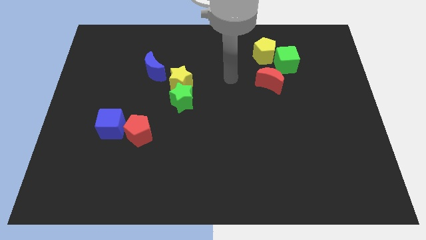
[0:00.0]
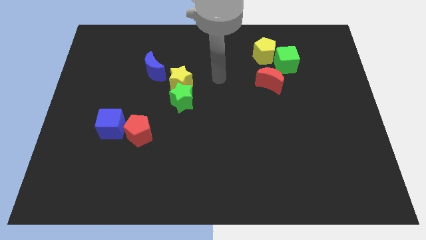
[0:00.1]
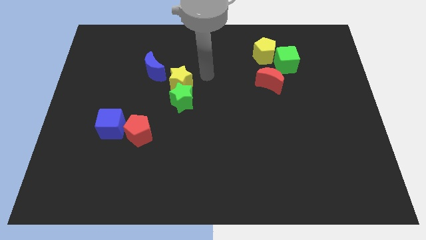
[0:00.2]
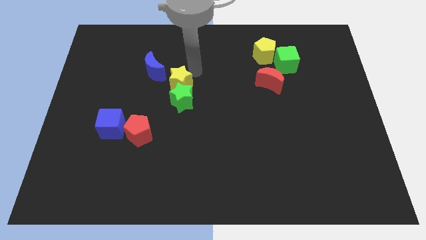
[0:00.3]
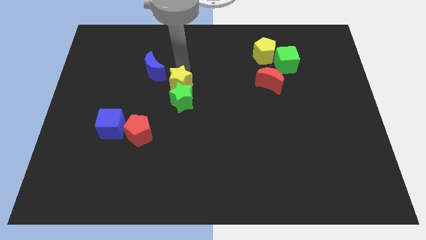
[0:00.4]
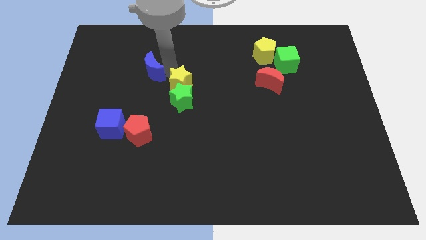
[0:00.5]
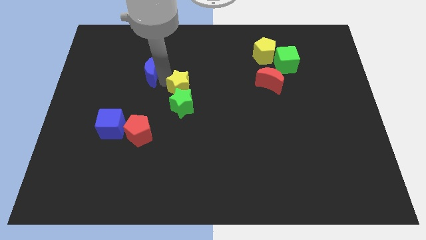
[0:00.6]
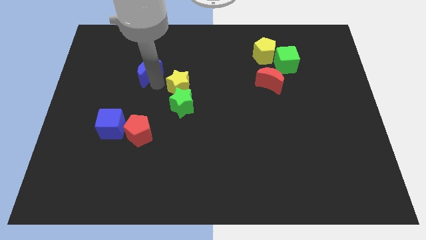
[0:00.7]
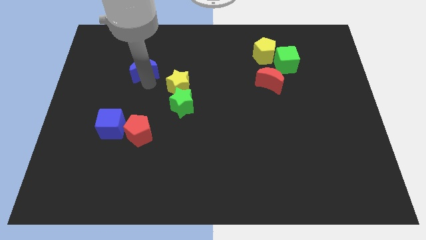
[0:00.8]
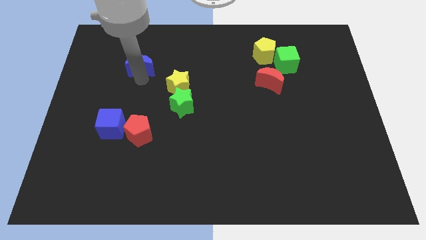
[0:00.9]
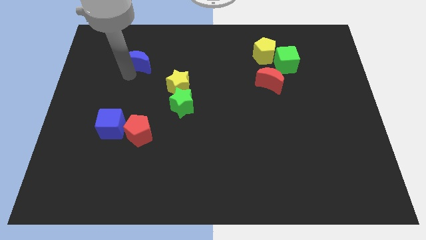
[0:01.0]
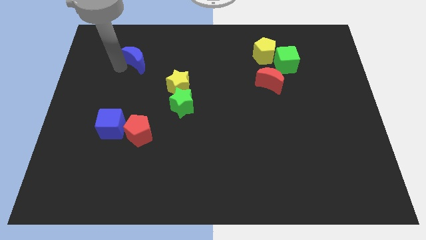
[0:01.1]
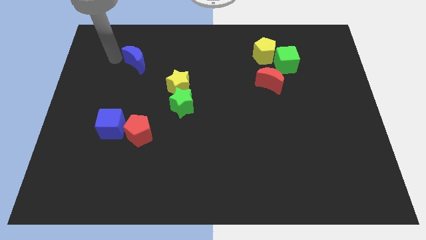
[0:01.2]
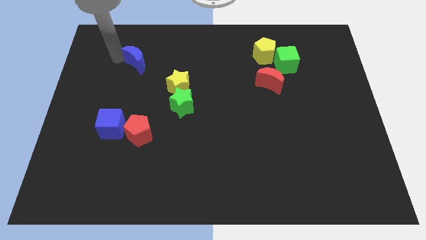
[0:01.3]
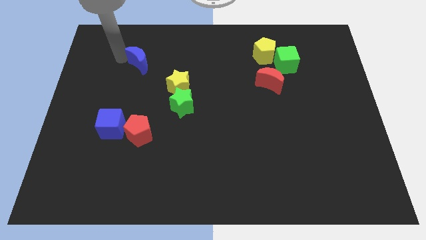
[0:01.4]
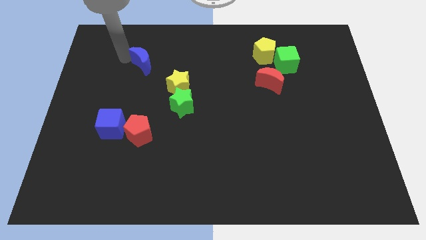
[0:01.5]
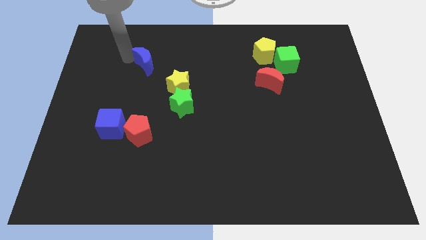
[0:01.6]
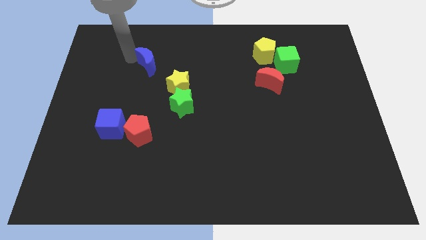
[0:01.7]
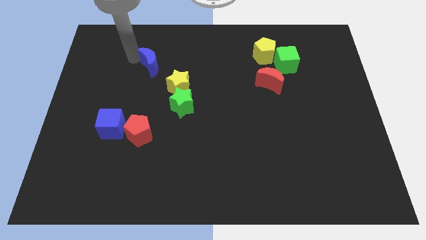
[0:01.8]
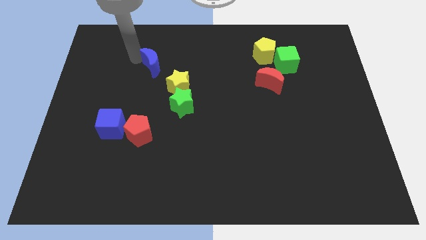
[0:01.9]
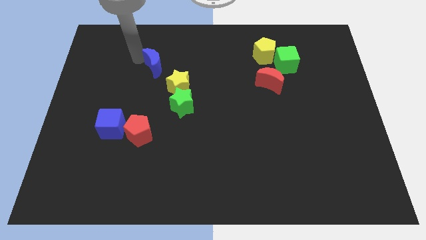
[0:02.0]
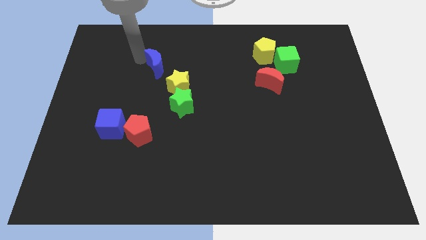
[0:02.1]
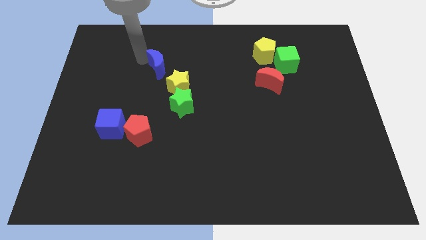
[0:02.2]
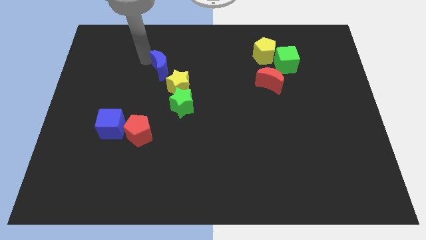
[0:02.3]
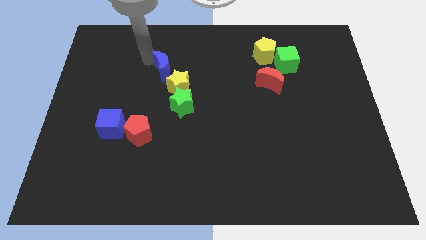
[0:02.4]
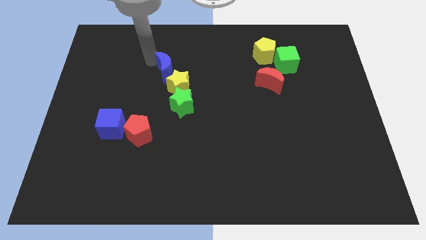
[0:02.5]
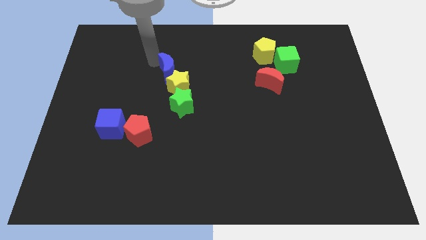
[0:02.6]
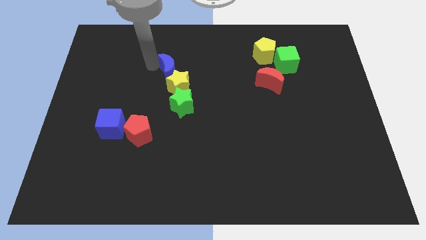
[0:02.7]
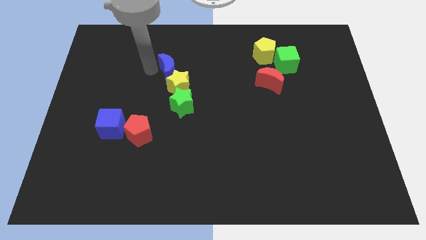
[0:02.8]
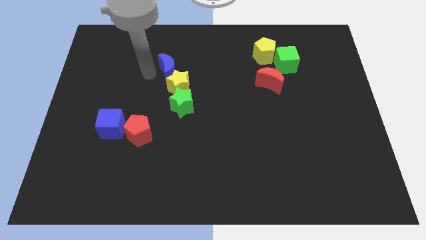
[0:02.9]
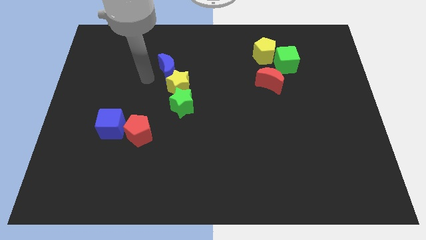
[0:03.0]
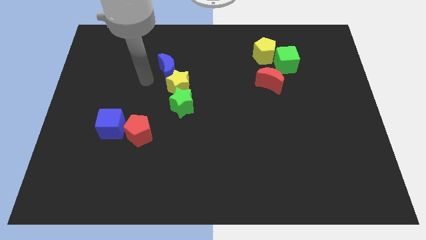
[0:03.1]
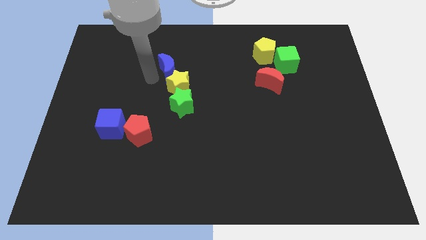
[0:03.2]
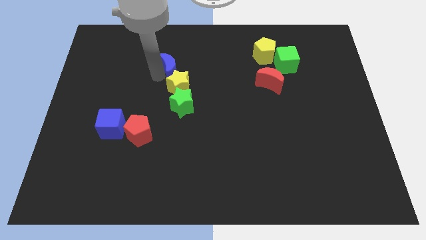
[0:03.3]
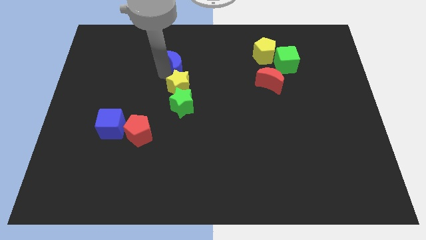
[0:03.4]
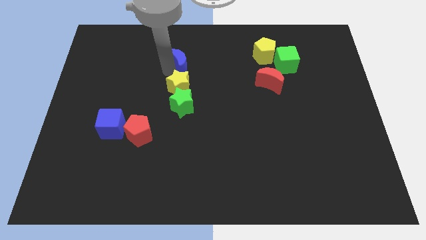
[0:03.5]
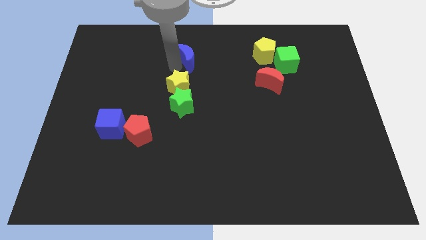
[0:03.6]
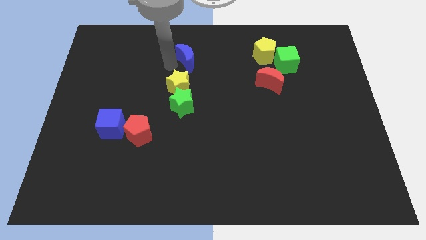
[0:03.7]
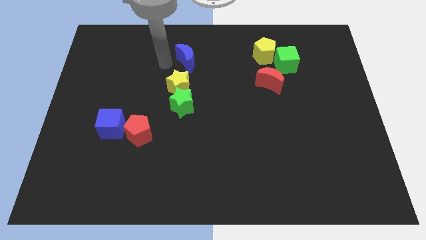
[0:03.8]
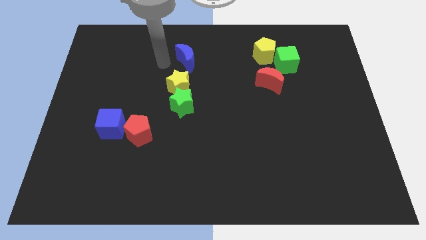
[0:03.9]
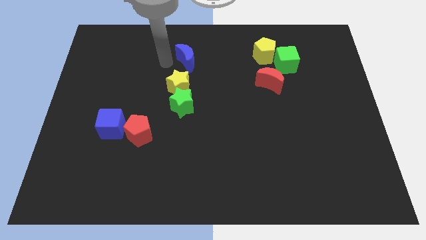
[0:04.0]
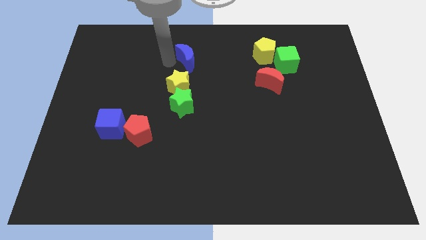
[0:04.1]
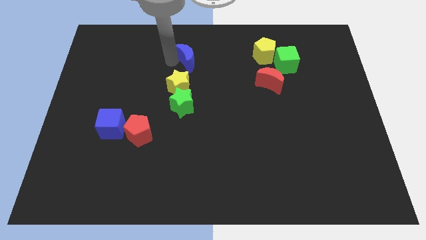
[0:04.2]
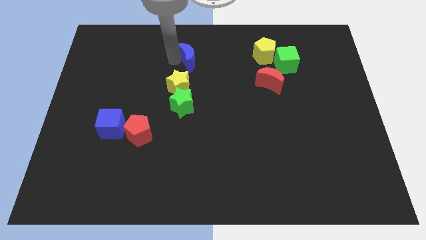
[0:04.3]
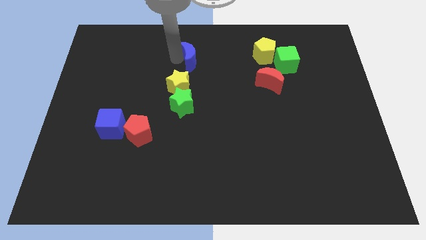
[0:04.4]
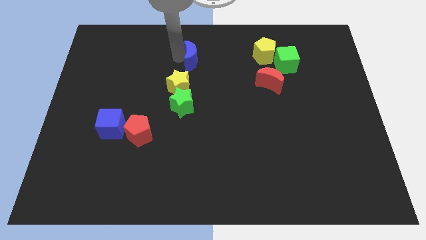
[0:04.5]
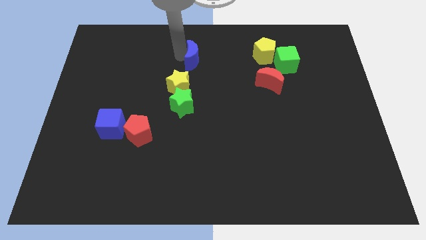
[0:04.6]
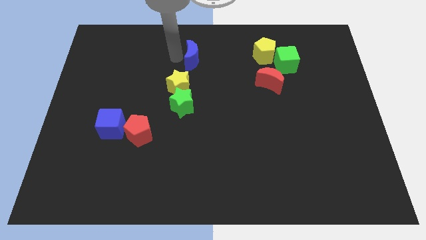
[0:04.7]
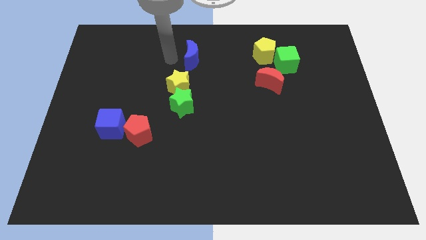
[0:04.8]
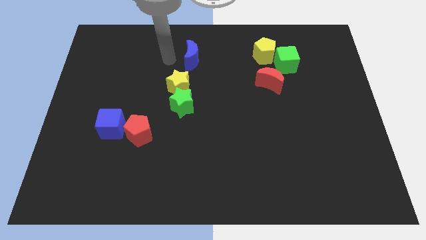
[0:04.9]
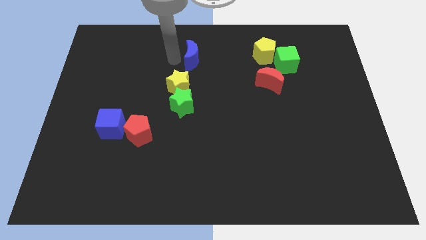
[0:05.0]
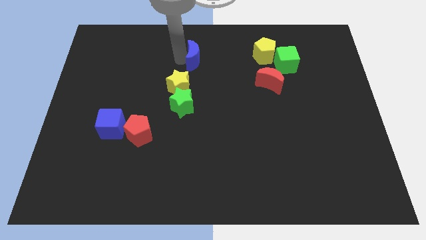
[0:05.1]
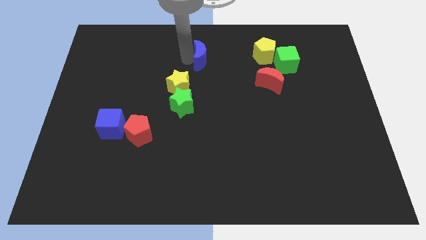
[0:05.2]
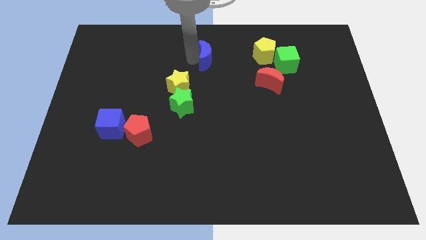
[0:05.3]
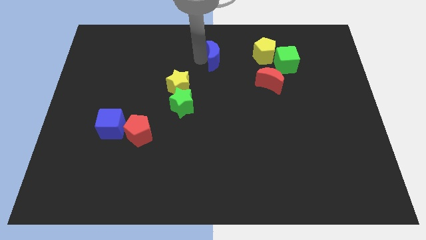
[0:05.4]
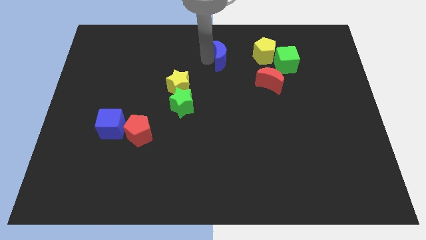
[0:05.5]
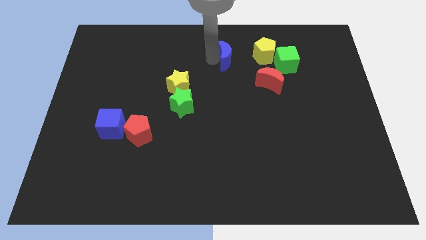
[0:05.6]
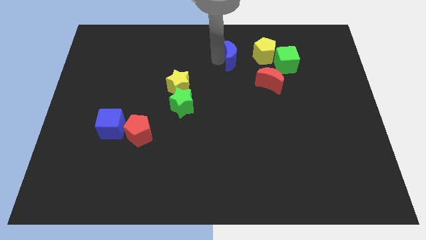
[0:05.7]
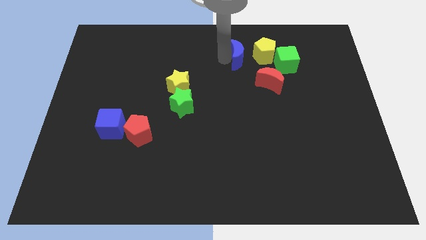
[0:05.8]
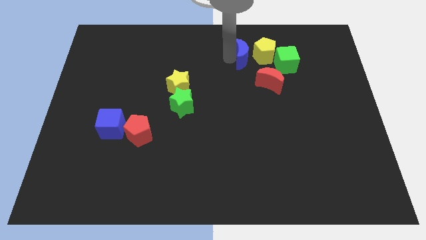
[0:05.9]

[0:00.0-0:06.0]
move the blue moon to the yellow pentagon
